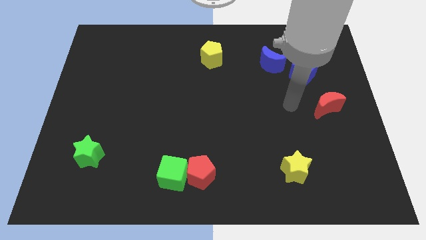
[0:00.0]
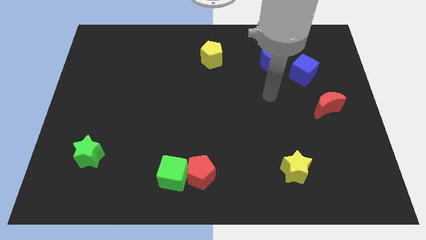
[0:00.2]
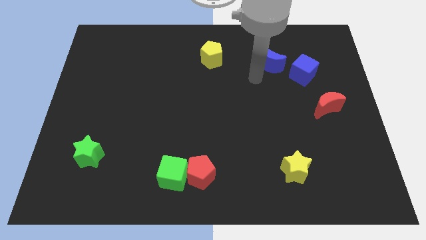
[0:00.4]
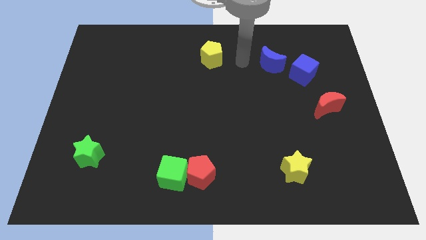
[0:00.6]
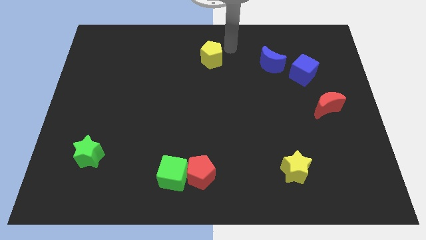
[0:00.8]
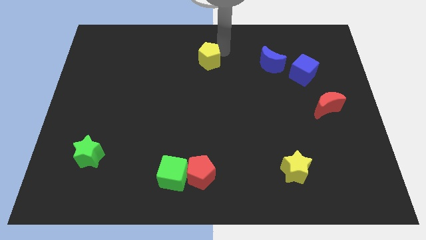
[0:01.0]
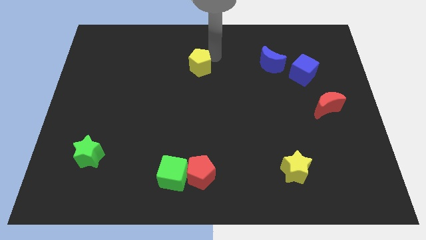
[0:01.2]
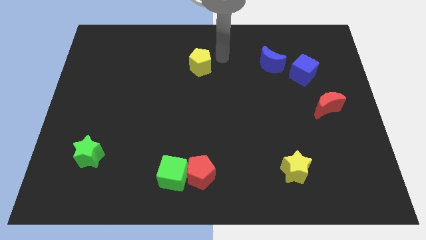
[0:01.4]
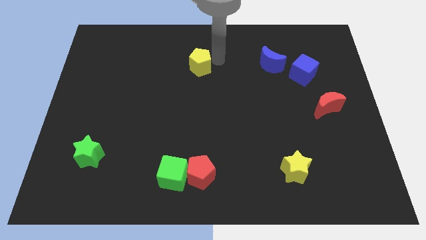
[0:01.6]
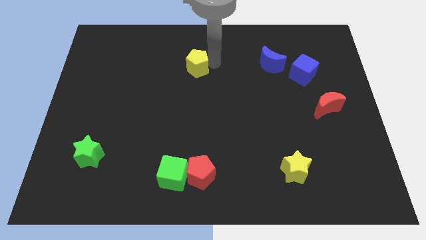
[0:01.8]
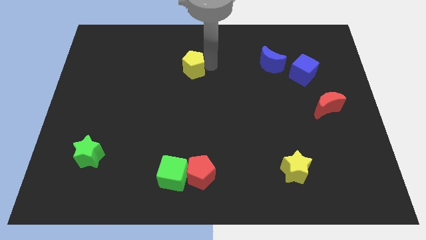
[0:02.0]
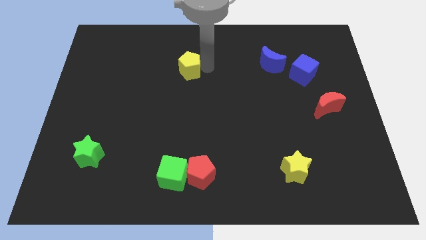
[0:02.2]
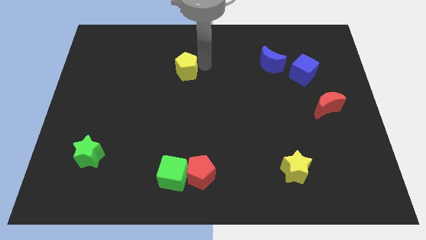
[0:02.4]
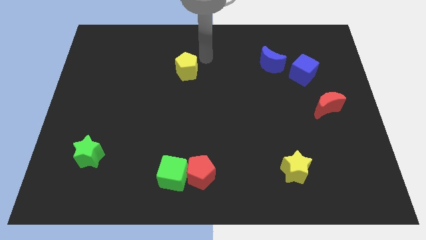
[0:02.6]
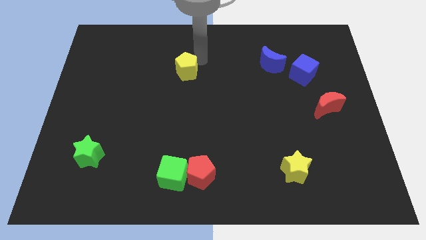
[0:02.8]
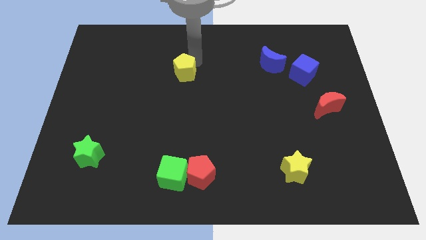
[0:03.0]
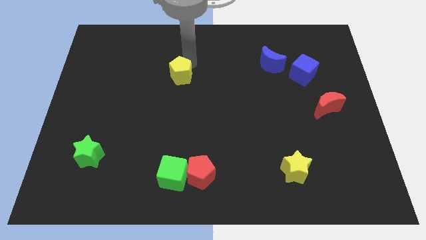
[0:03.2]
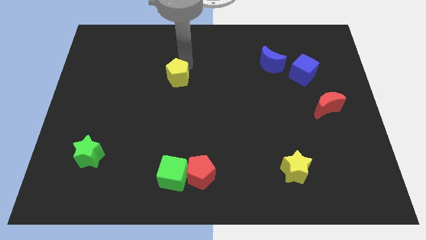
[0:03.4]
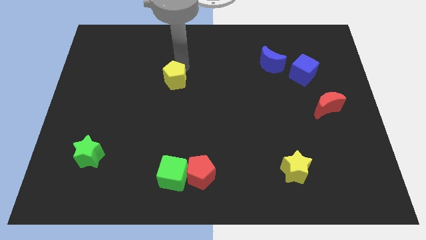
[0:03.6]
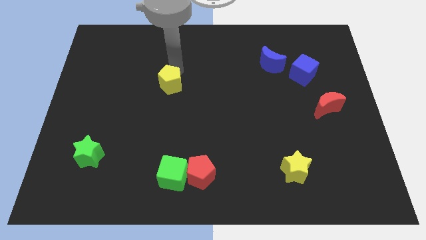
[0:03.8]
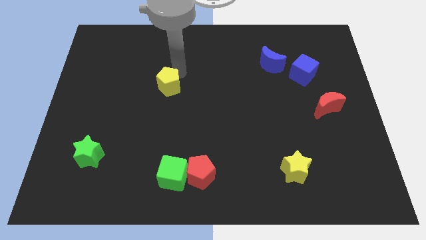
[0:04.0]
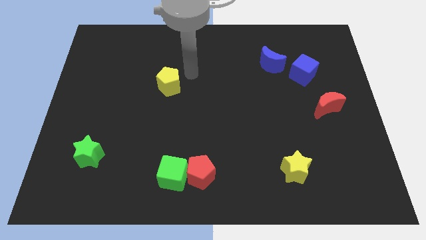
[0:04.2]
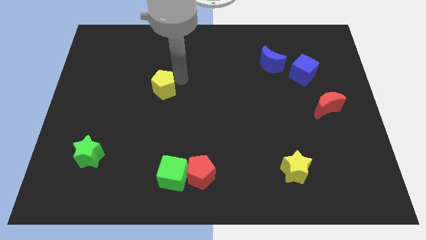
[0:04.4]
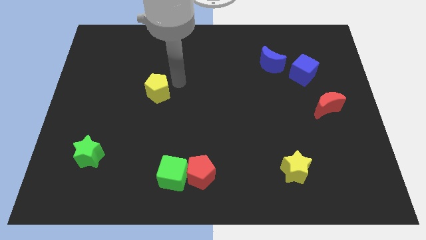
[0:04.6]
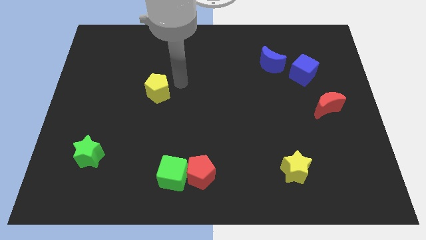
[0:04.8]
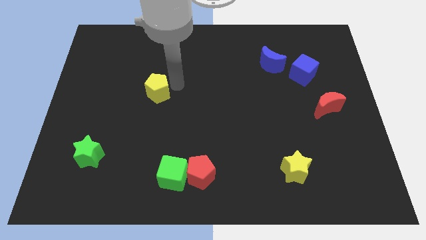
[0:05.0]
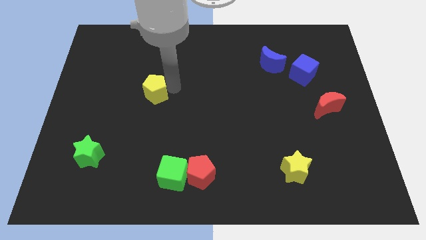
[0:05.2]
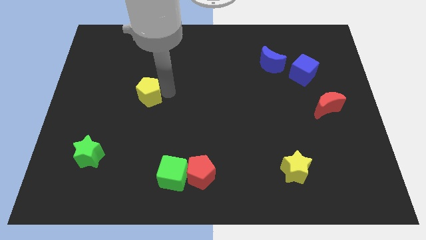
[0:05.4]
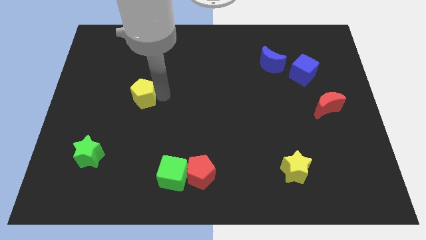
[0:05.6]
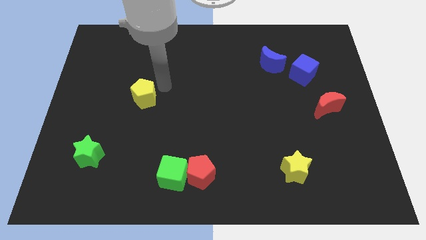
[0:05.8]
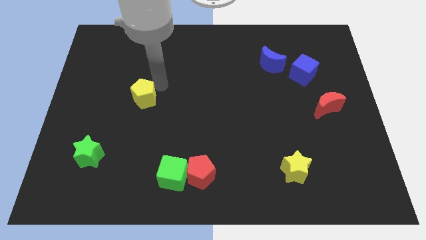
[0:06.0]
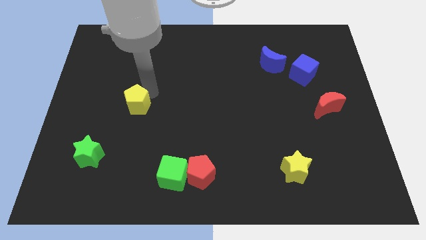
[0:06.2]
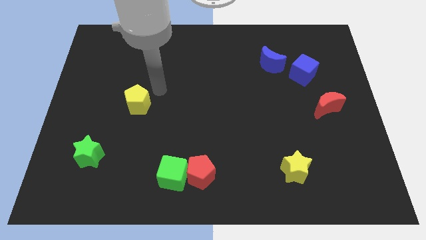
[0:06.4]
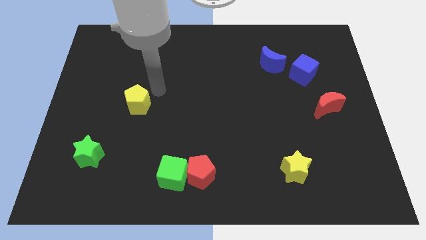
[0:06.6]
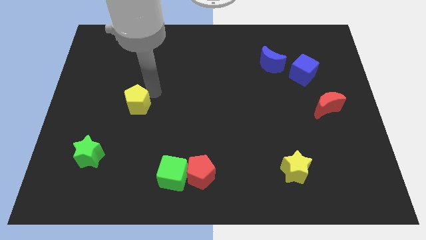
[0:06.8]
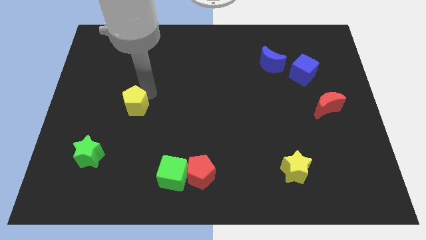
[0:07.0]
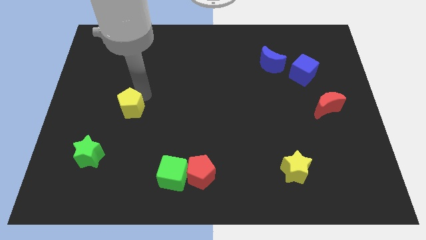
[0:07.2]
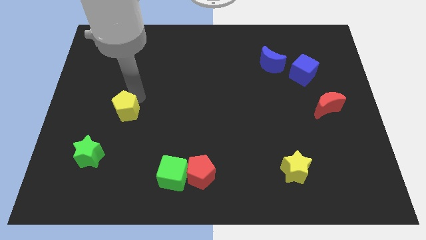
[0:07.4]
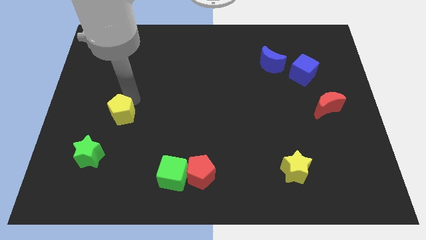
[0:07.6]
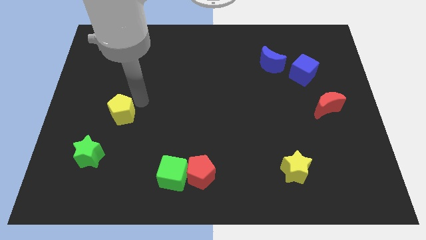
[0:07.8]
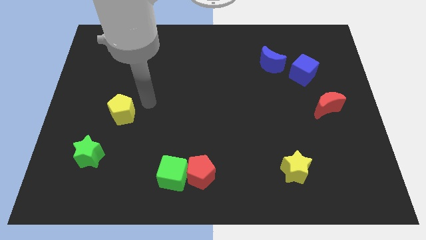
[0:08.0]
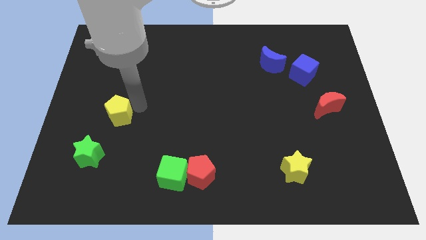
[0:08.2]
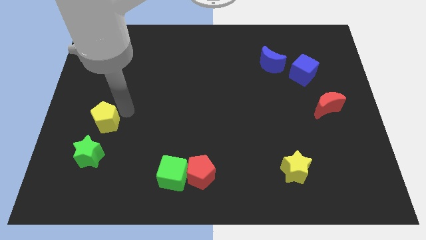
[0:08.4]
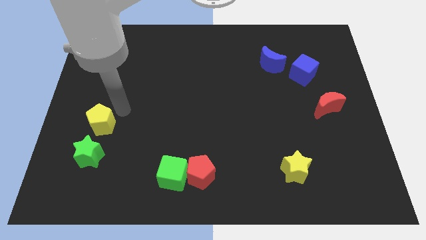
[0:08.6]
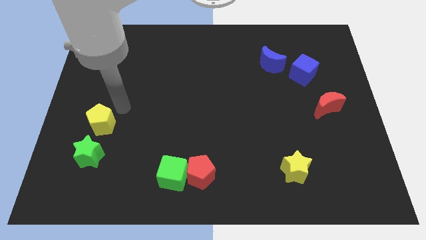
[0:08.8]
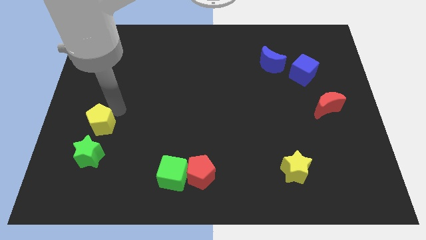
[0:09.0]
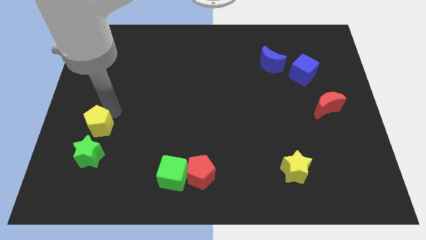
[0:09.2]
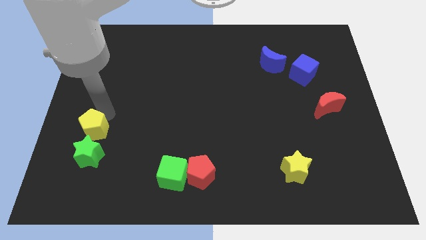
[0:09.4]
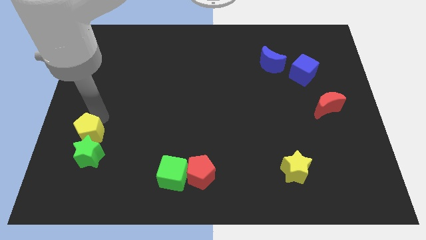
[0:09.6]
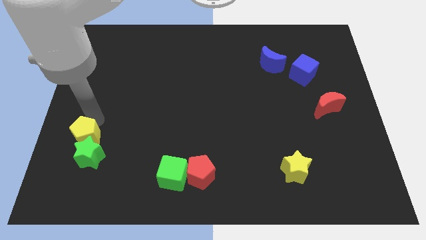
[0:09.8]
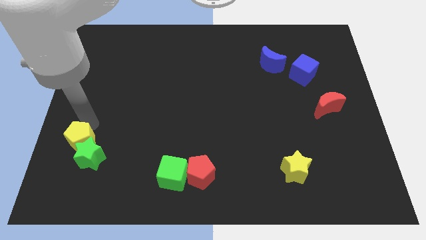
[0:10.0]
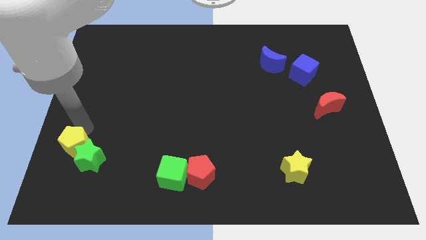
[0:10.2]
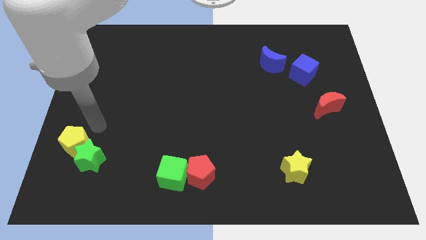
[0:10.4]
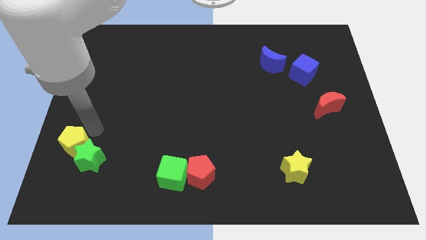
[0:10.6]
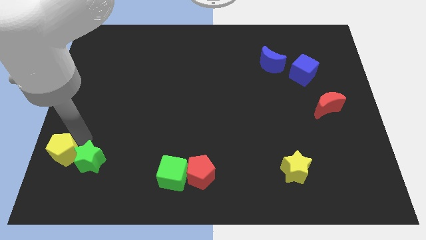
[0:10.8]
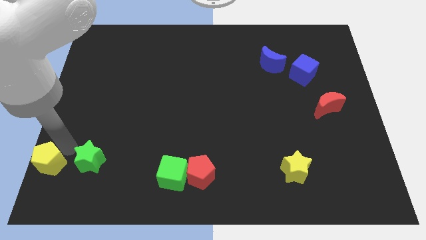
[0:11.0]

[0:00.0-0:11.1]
put the yellow pentagon to the lower left corner

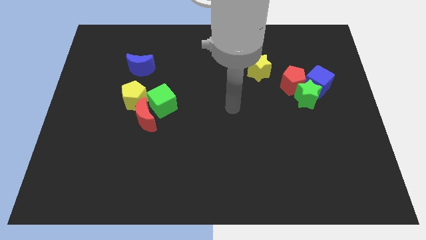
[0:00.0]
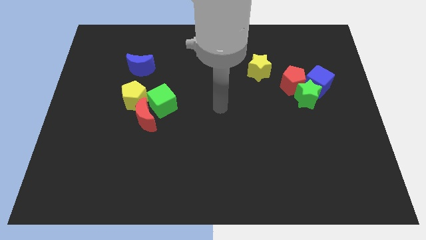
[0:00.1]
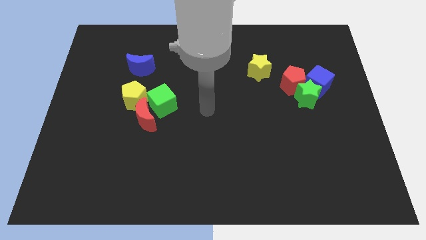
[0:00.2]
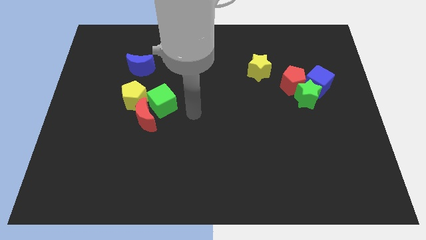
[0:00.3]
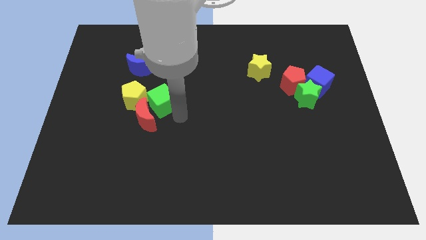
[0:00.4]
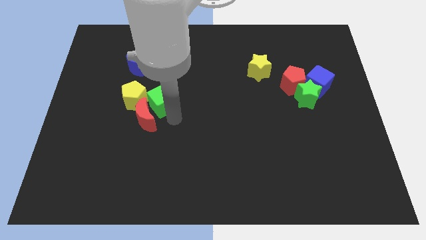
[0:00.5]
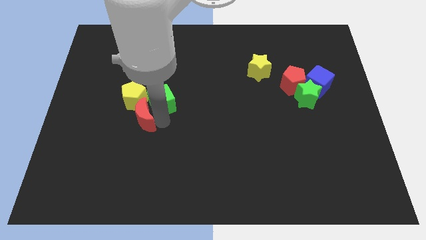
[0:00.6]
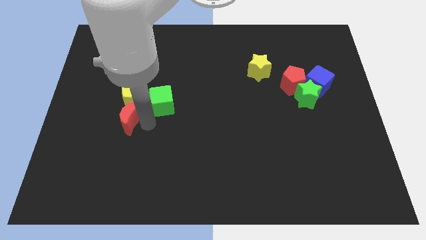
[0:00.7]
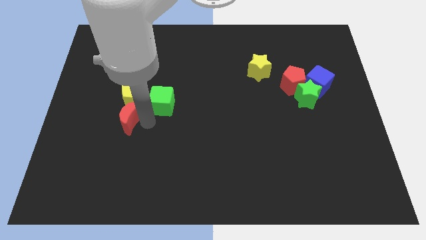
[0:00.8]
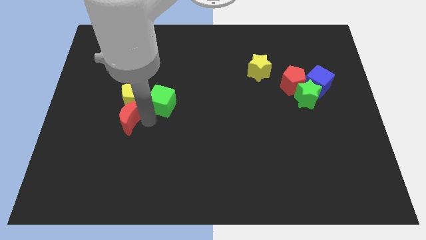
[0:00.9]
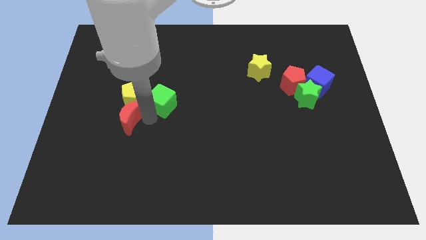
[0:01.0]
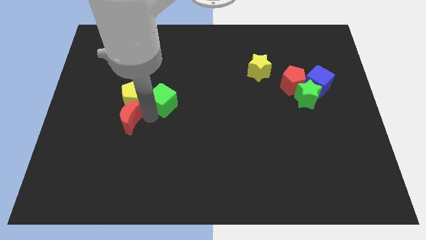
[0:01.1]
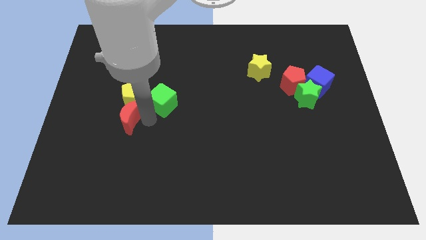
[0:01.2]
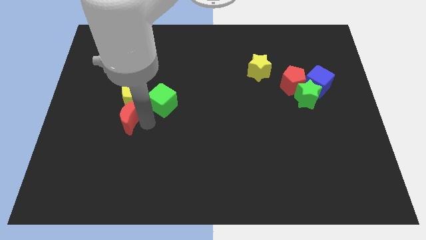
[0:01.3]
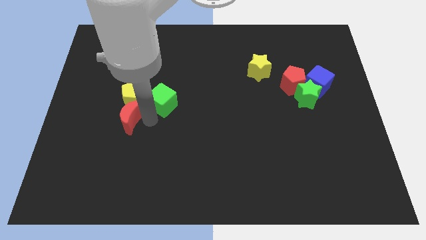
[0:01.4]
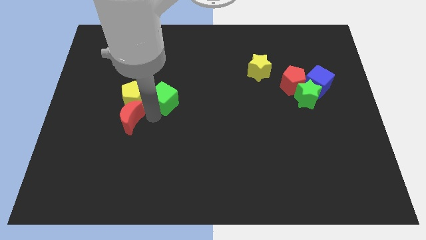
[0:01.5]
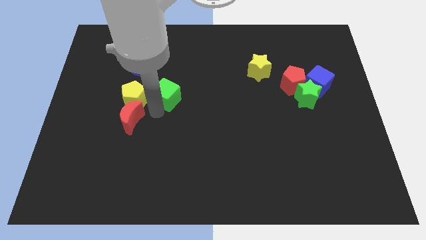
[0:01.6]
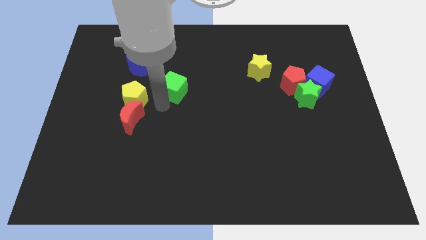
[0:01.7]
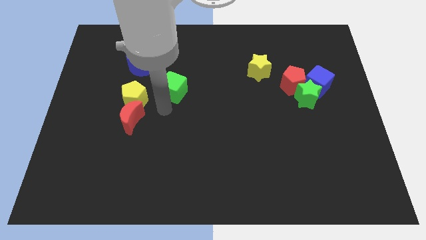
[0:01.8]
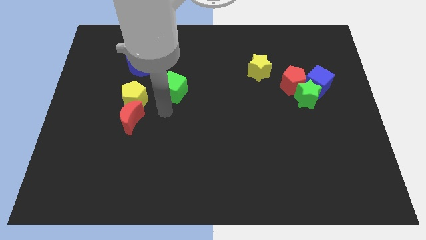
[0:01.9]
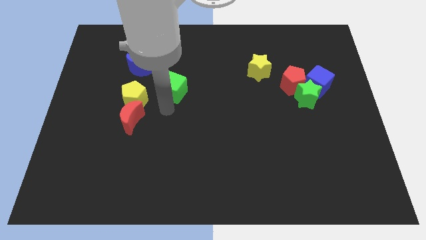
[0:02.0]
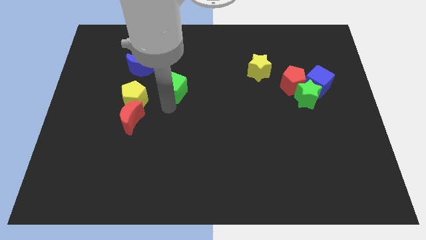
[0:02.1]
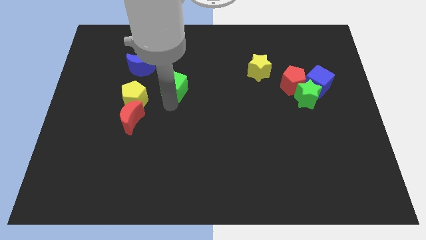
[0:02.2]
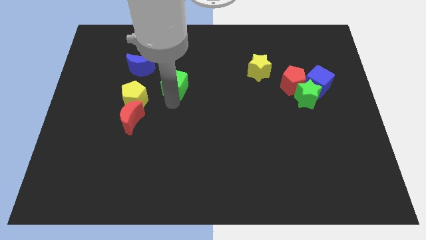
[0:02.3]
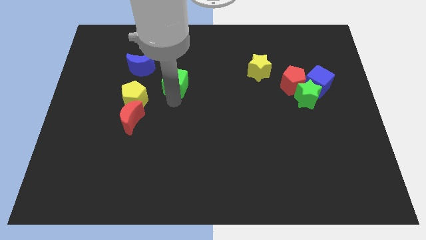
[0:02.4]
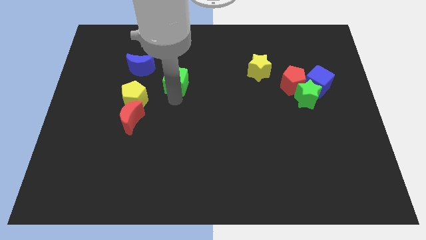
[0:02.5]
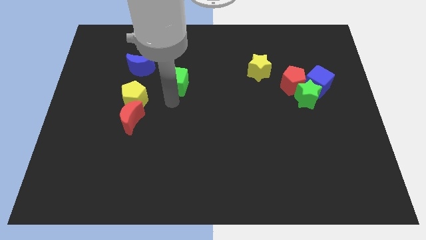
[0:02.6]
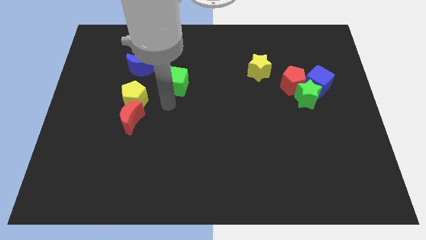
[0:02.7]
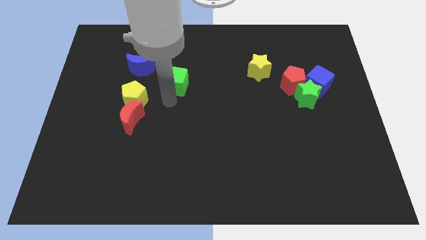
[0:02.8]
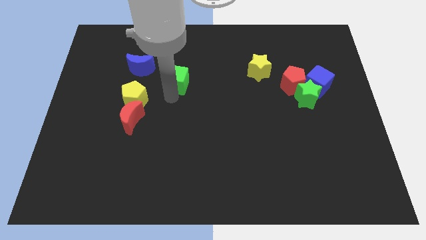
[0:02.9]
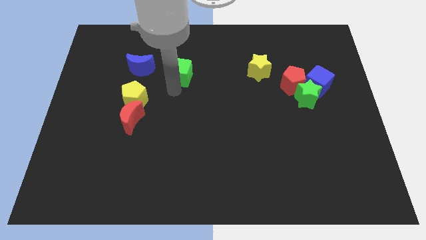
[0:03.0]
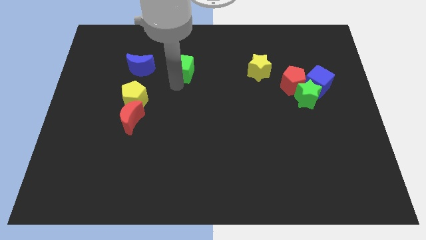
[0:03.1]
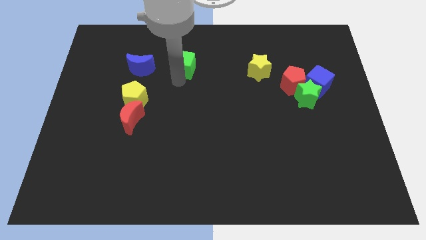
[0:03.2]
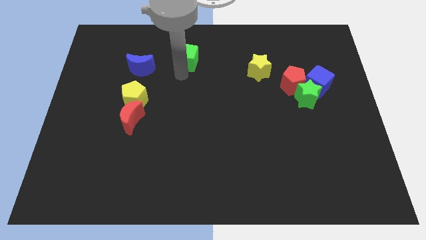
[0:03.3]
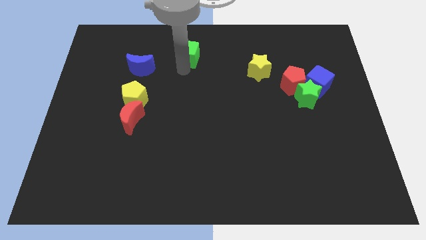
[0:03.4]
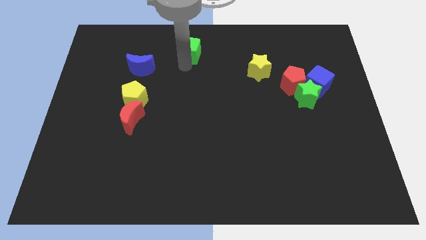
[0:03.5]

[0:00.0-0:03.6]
put the green cube to the towards your base
